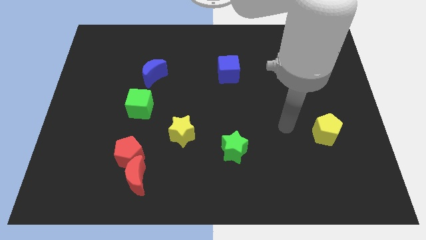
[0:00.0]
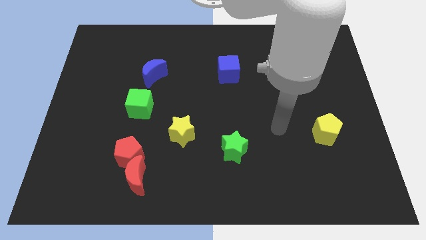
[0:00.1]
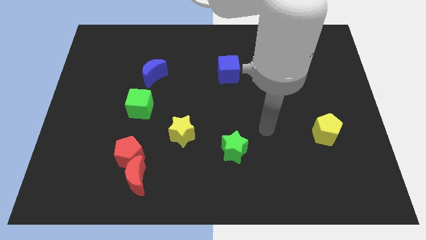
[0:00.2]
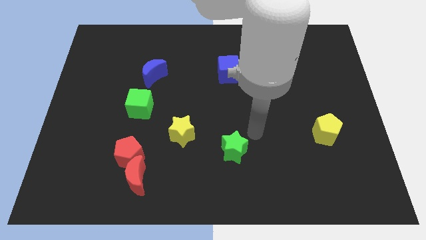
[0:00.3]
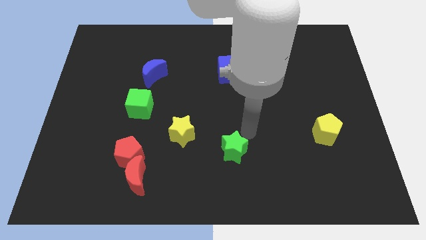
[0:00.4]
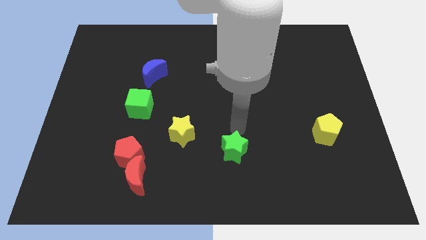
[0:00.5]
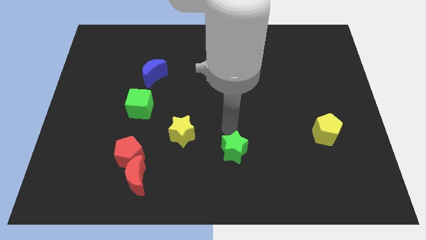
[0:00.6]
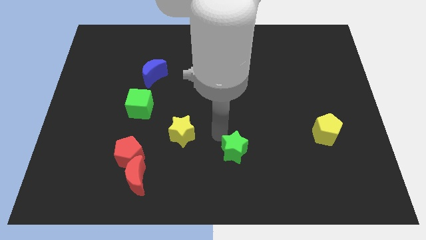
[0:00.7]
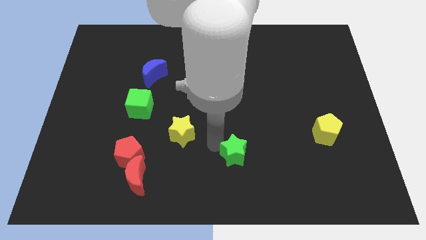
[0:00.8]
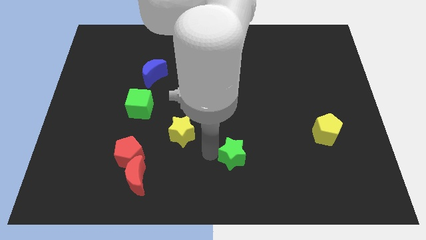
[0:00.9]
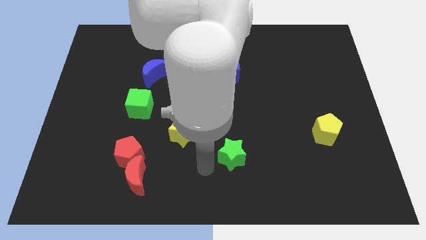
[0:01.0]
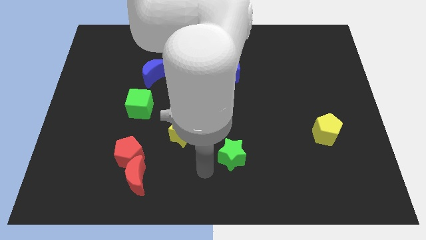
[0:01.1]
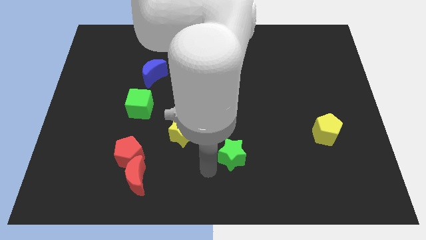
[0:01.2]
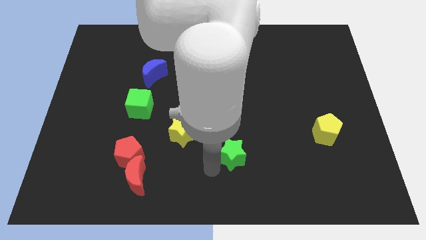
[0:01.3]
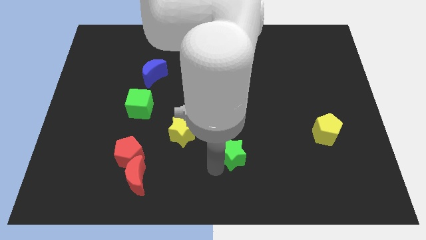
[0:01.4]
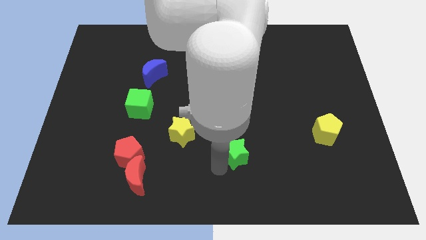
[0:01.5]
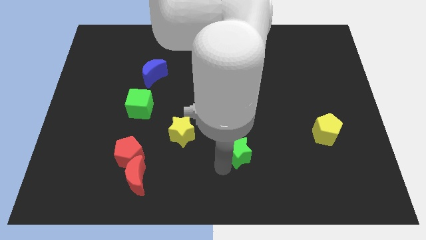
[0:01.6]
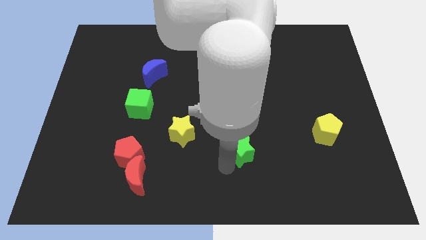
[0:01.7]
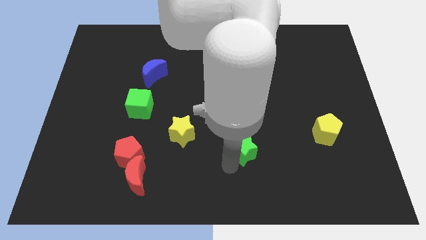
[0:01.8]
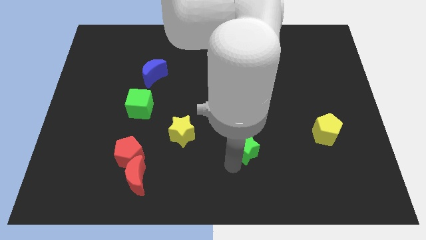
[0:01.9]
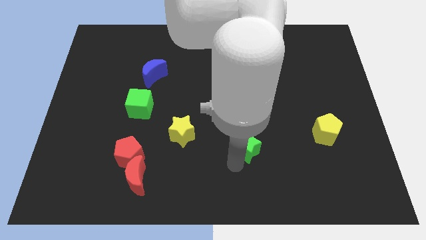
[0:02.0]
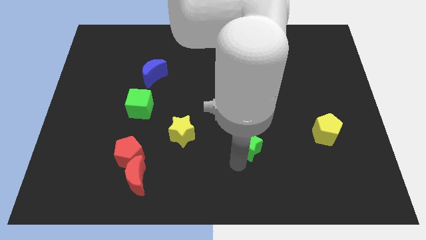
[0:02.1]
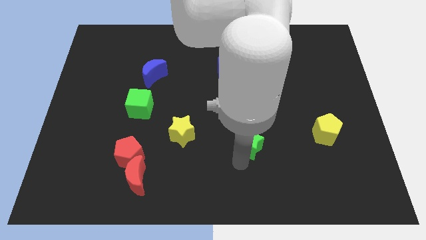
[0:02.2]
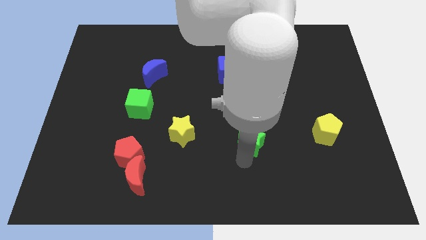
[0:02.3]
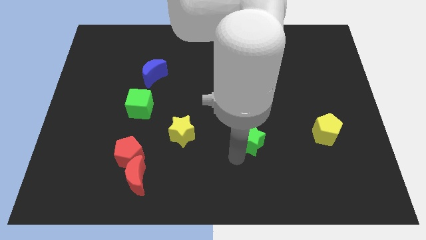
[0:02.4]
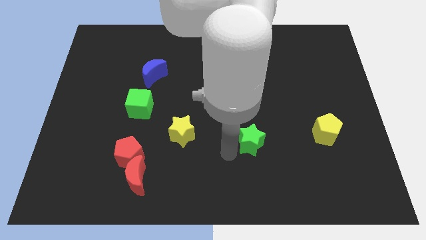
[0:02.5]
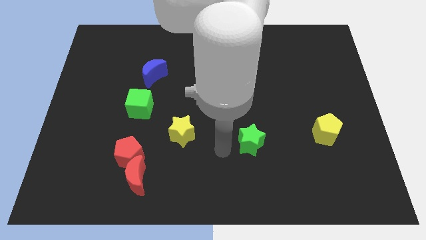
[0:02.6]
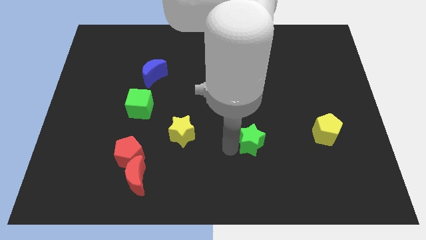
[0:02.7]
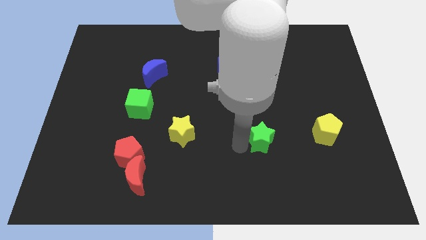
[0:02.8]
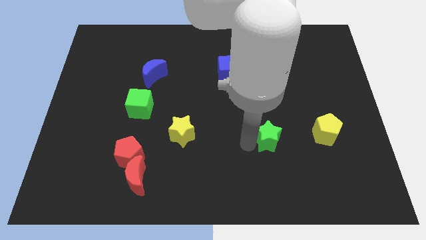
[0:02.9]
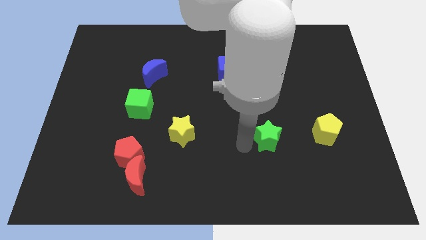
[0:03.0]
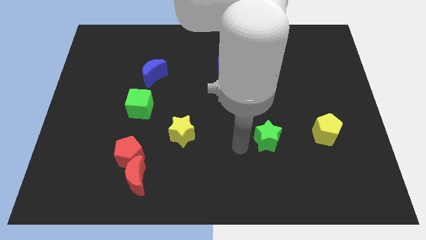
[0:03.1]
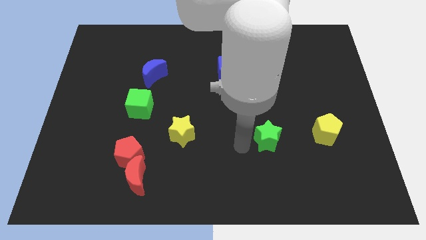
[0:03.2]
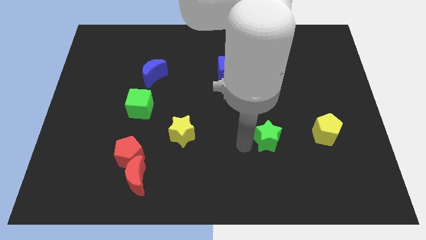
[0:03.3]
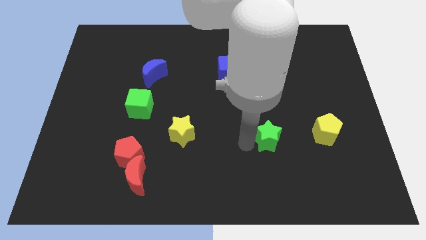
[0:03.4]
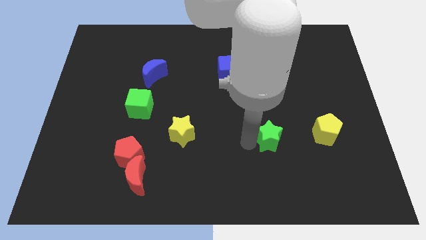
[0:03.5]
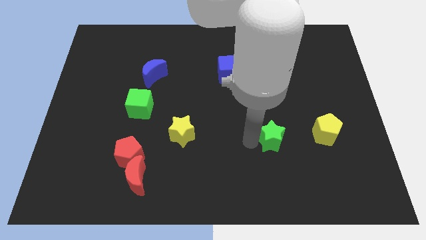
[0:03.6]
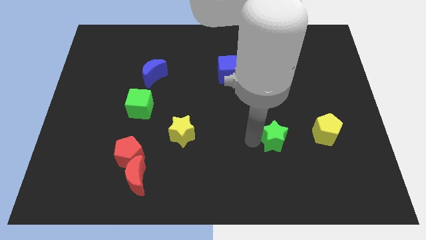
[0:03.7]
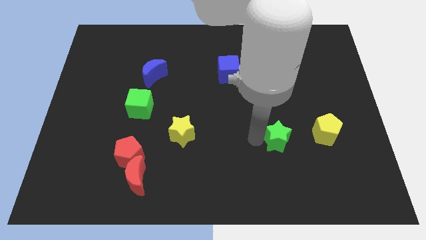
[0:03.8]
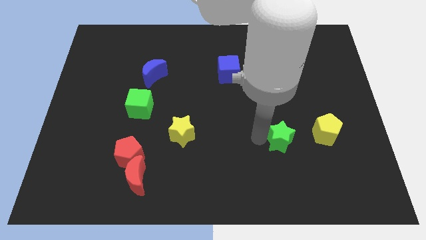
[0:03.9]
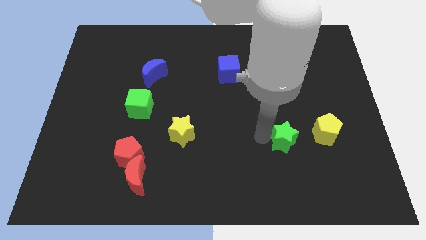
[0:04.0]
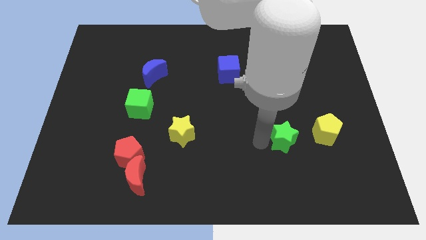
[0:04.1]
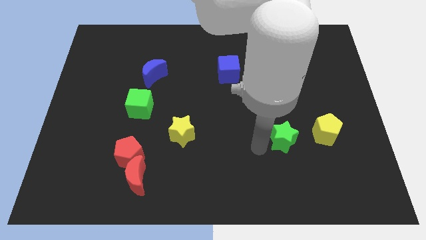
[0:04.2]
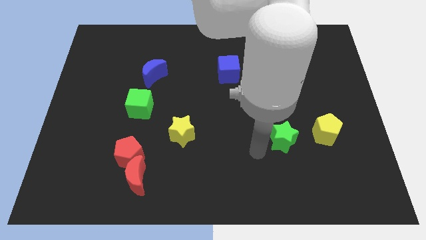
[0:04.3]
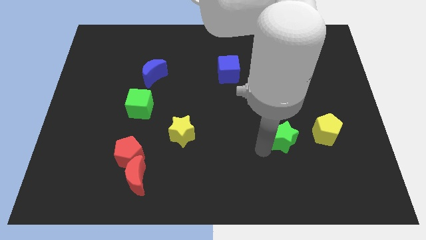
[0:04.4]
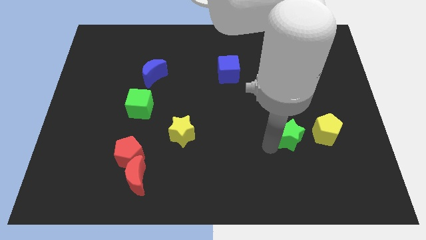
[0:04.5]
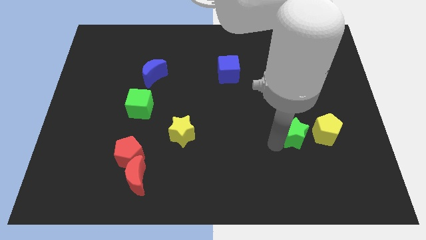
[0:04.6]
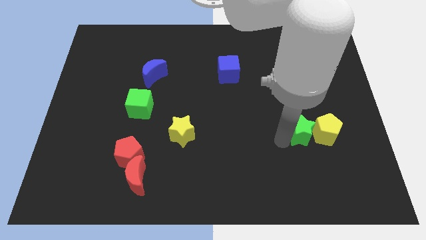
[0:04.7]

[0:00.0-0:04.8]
move the green star close to the yellow pentagon

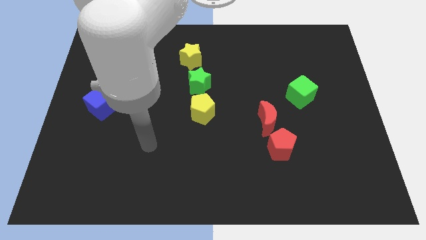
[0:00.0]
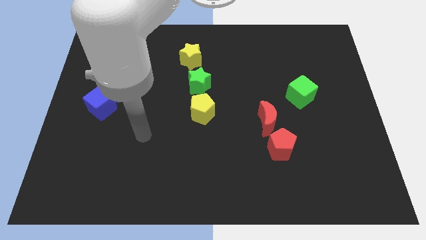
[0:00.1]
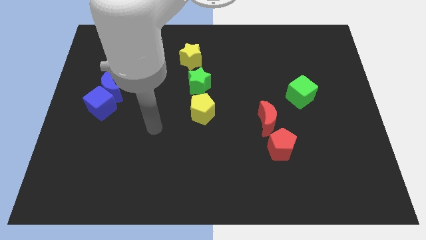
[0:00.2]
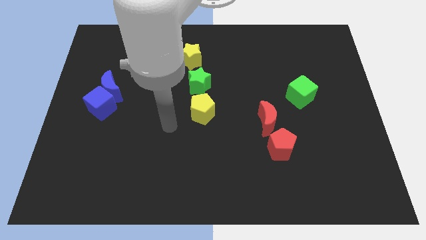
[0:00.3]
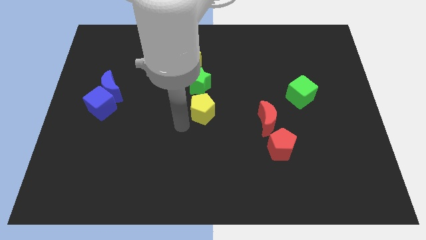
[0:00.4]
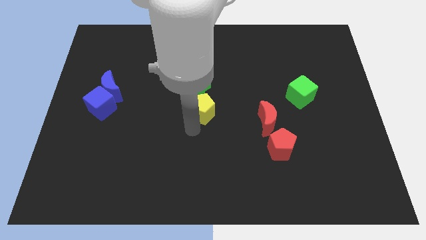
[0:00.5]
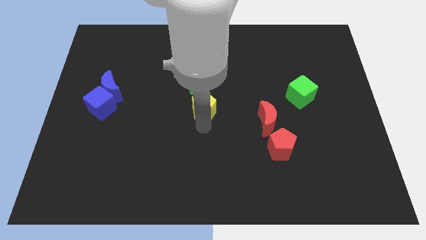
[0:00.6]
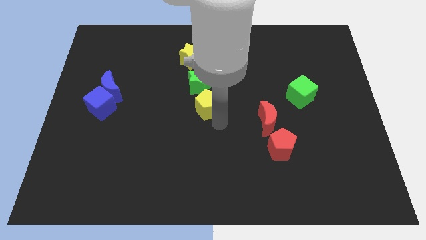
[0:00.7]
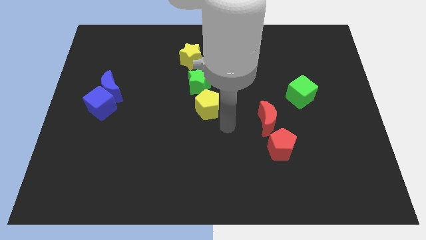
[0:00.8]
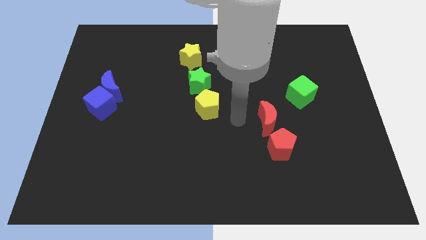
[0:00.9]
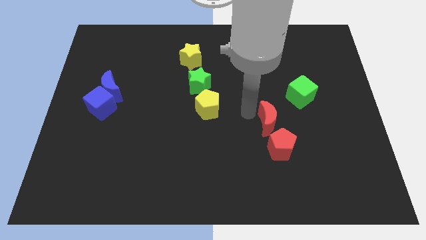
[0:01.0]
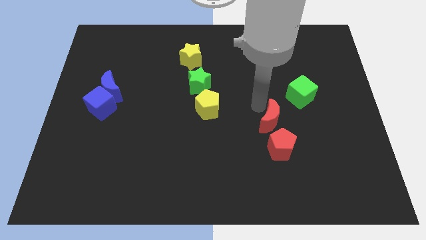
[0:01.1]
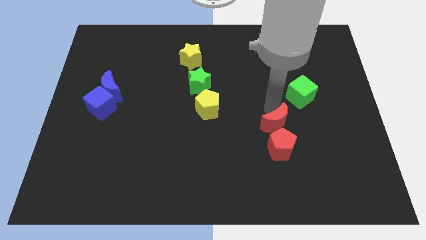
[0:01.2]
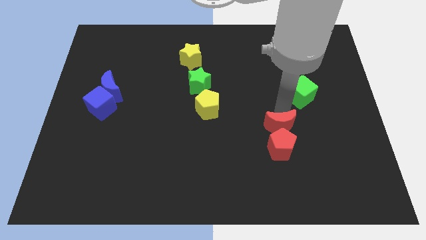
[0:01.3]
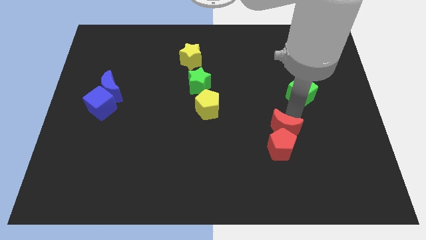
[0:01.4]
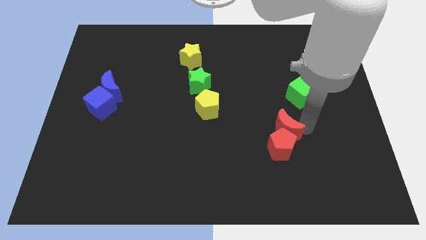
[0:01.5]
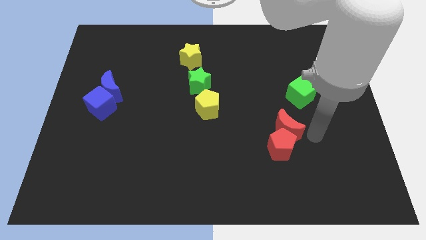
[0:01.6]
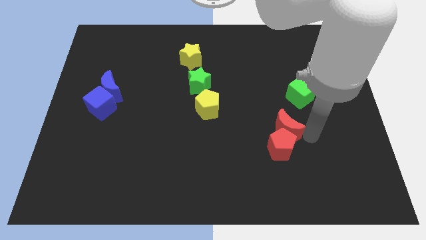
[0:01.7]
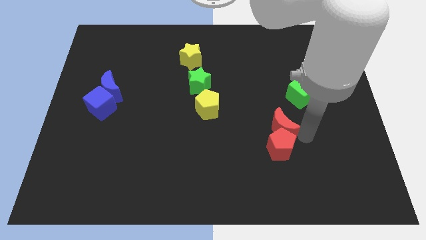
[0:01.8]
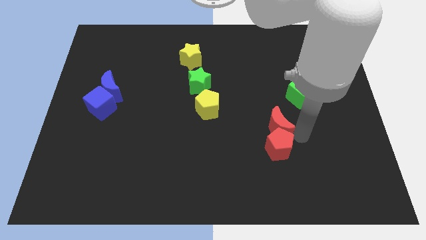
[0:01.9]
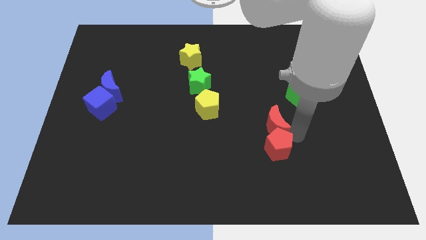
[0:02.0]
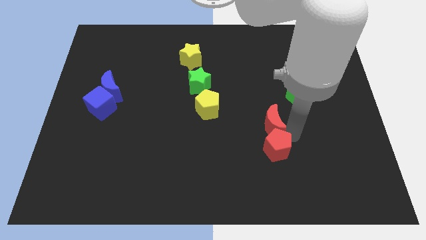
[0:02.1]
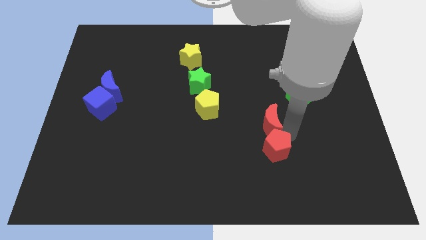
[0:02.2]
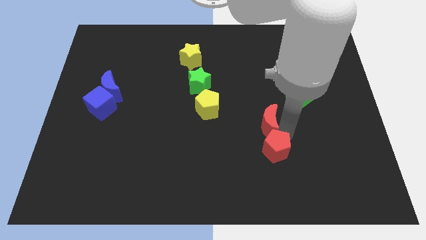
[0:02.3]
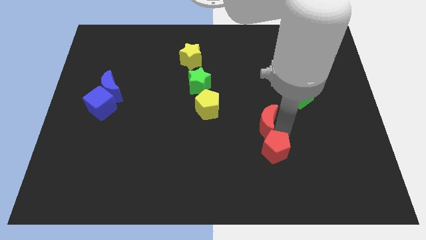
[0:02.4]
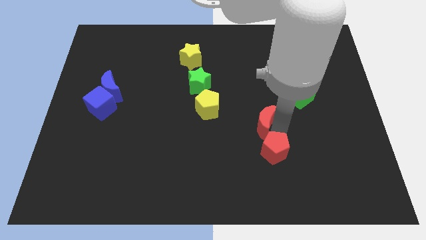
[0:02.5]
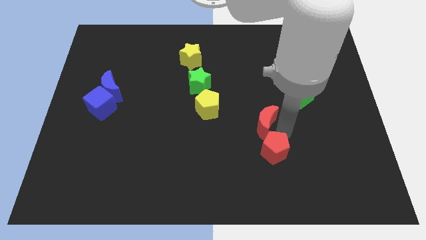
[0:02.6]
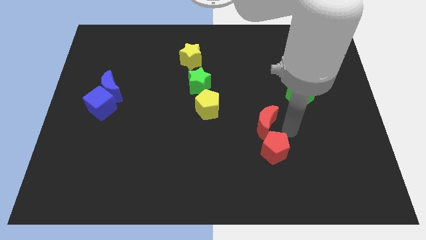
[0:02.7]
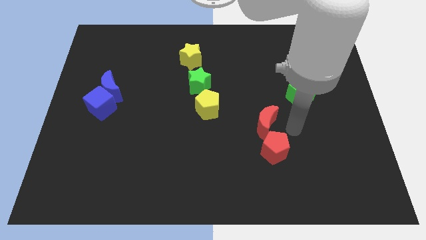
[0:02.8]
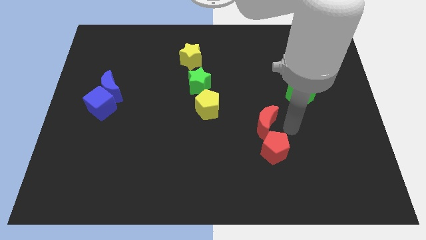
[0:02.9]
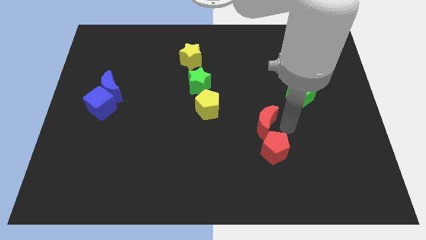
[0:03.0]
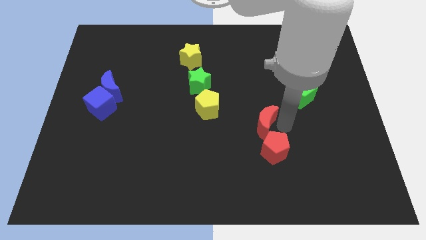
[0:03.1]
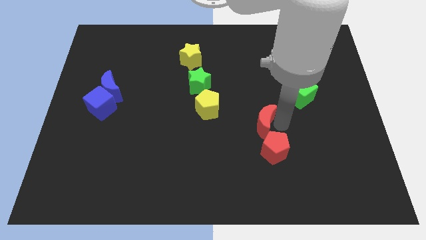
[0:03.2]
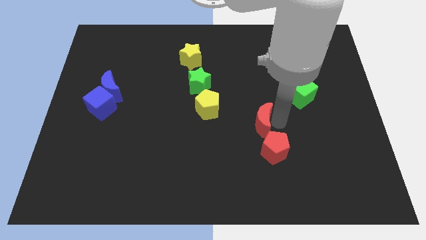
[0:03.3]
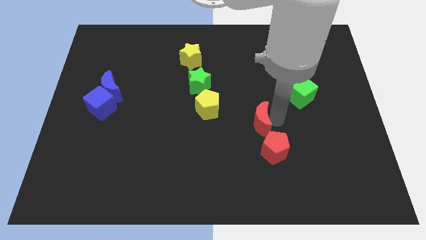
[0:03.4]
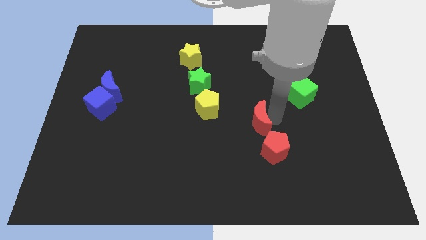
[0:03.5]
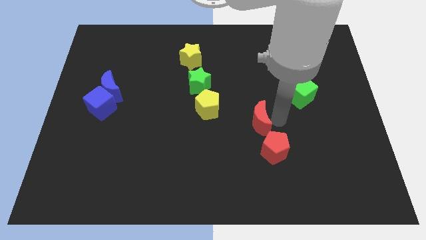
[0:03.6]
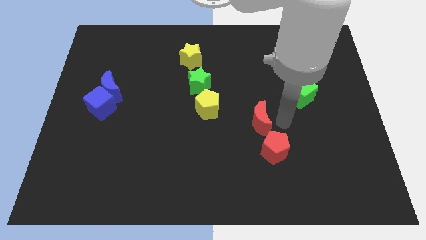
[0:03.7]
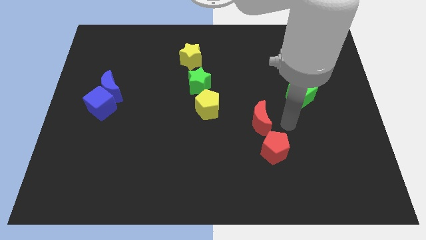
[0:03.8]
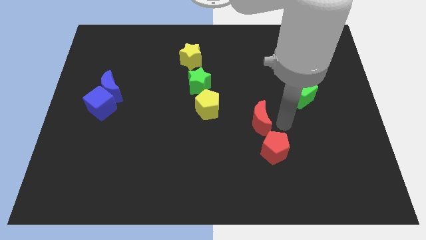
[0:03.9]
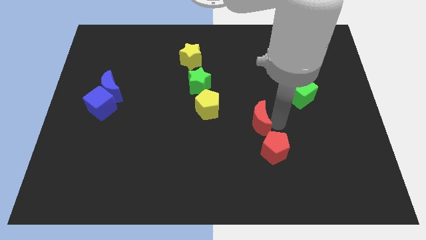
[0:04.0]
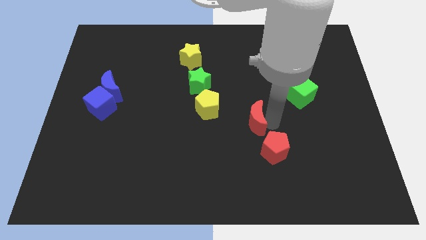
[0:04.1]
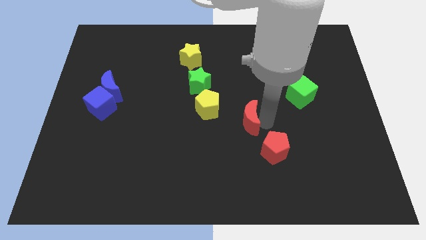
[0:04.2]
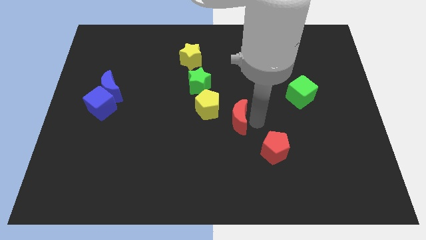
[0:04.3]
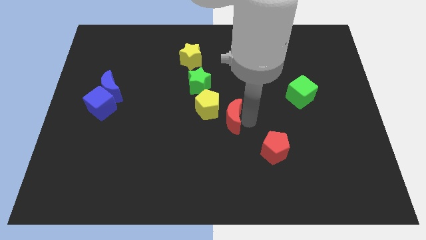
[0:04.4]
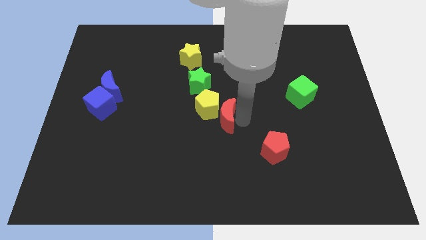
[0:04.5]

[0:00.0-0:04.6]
push the red moon to the yellow pentagon
